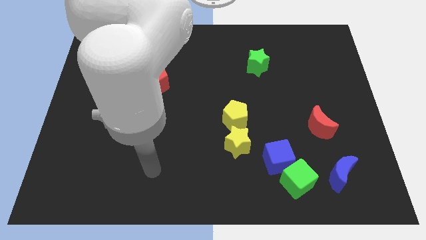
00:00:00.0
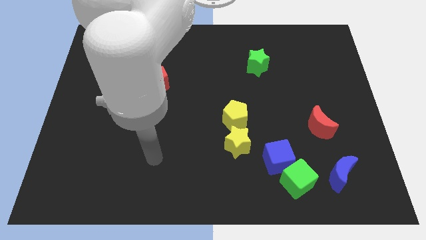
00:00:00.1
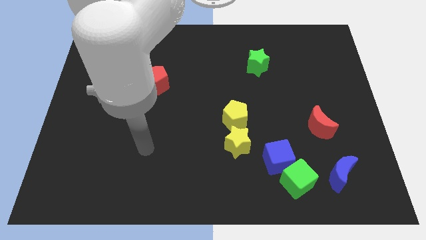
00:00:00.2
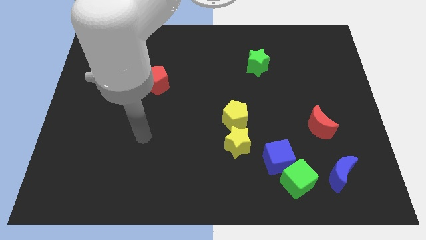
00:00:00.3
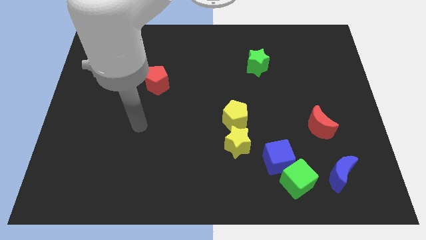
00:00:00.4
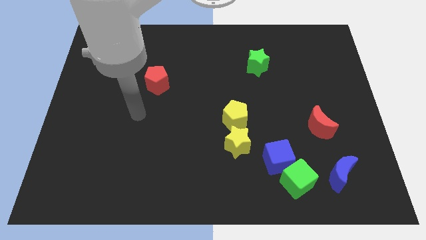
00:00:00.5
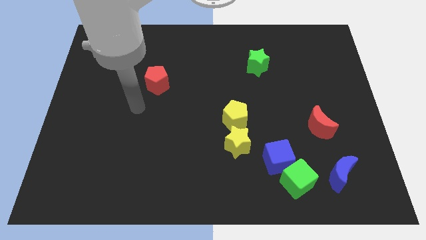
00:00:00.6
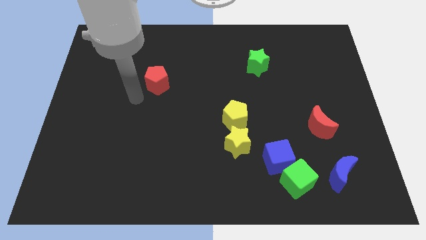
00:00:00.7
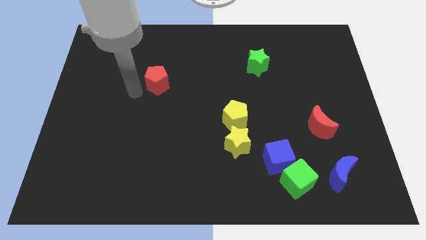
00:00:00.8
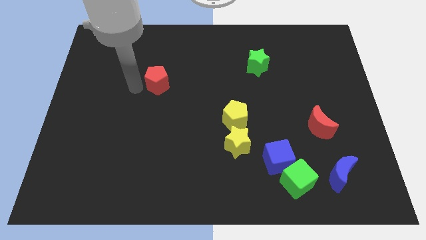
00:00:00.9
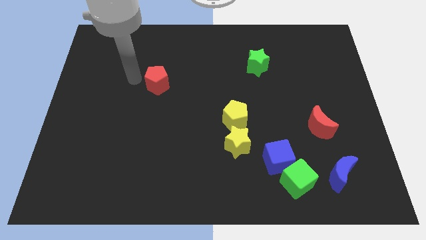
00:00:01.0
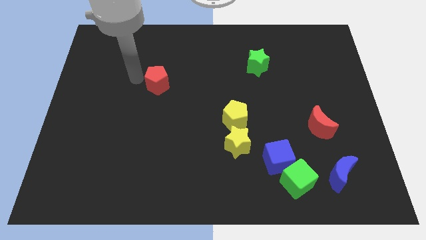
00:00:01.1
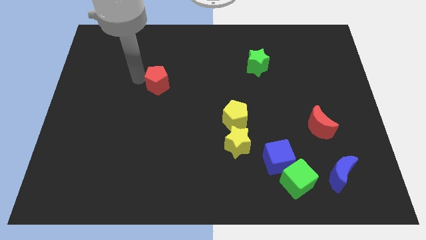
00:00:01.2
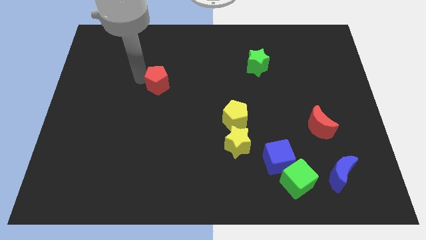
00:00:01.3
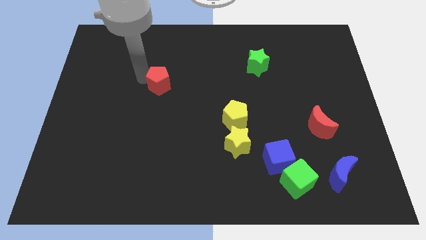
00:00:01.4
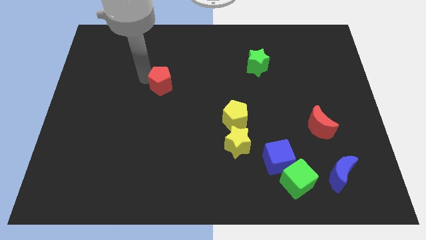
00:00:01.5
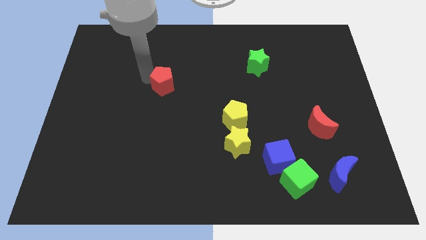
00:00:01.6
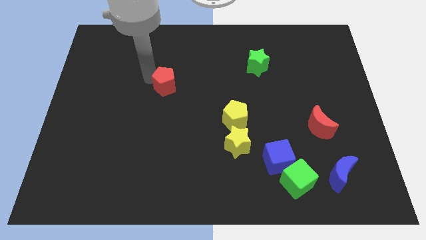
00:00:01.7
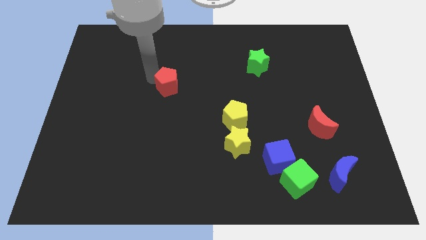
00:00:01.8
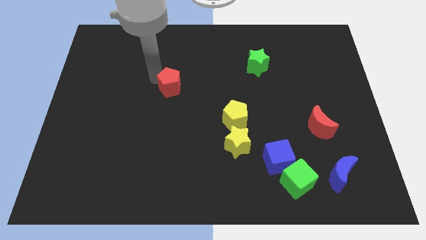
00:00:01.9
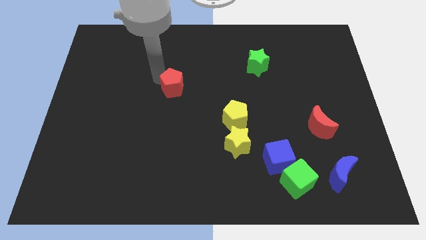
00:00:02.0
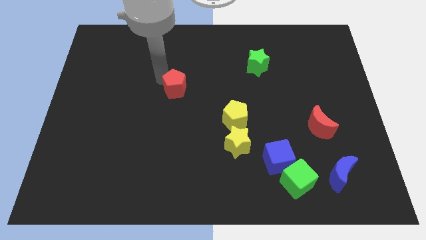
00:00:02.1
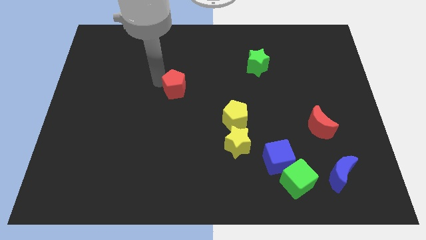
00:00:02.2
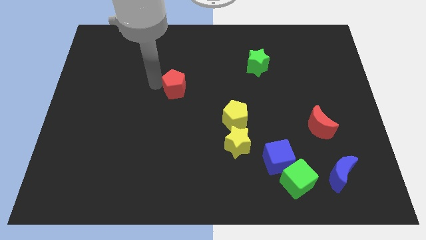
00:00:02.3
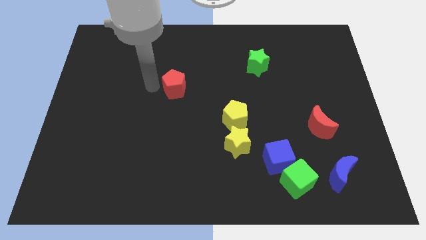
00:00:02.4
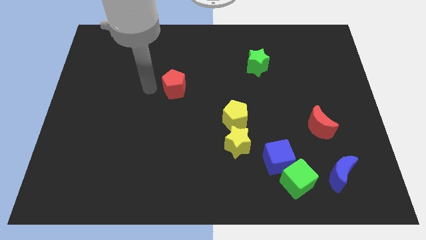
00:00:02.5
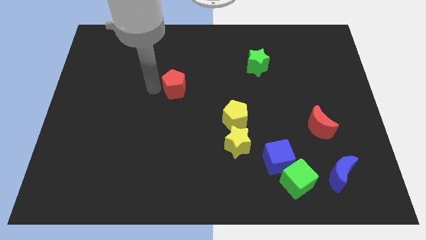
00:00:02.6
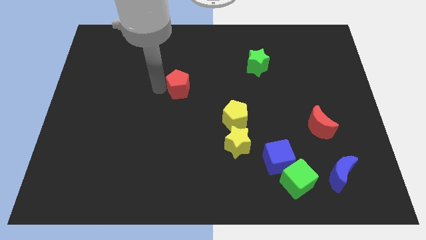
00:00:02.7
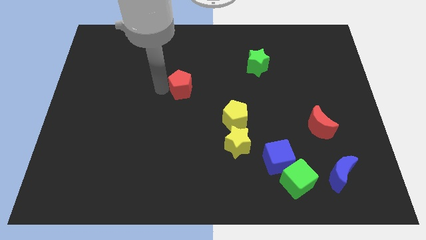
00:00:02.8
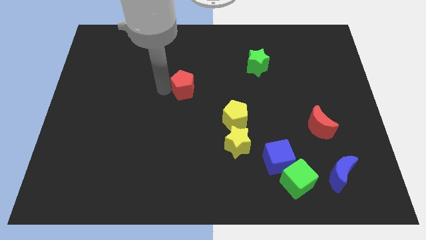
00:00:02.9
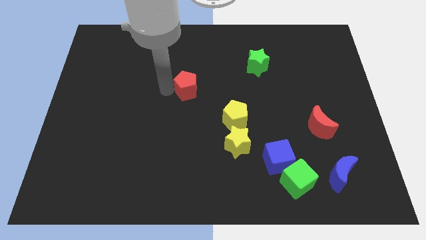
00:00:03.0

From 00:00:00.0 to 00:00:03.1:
slide the red pentagon to the right a little

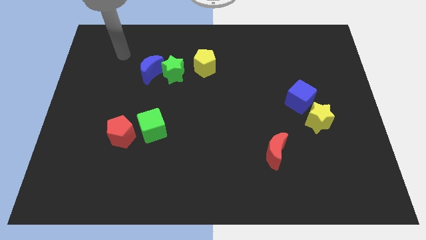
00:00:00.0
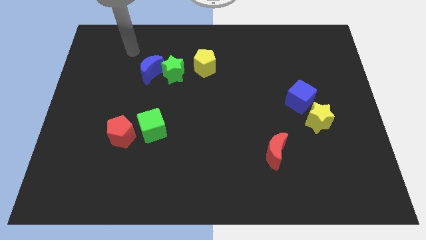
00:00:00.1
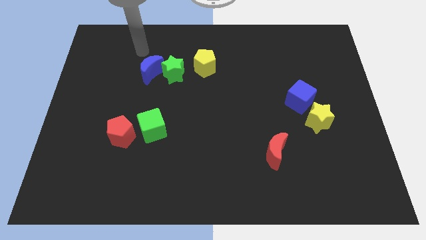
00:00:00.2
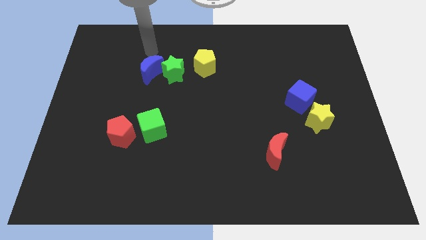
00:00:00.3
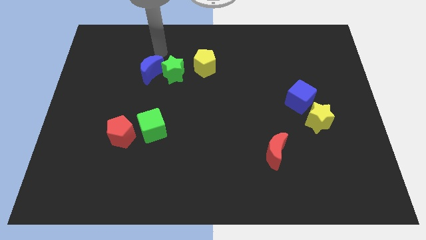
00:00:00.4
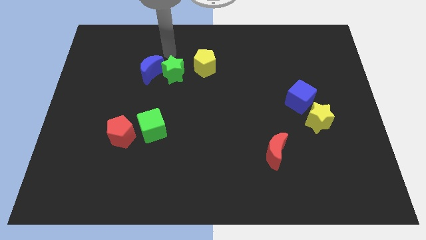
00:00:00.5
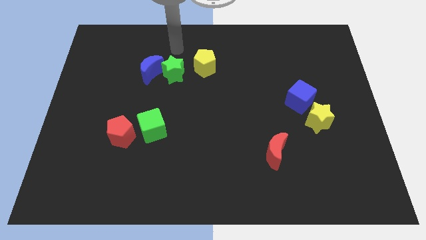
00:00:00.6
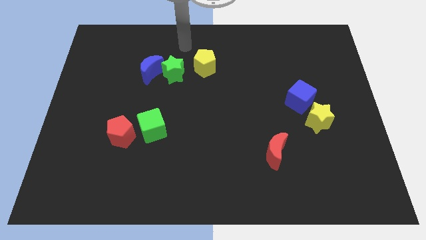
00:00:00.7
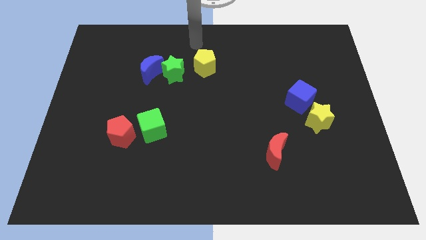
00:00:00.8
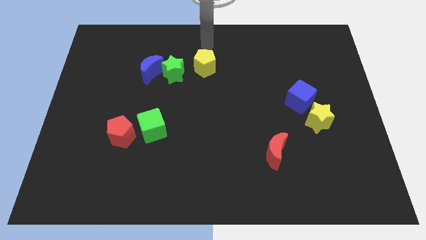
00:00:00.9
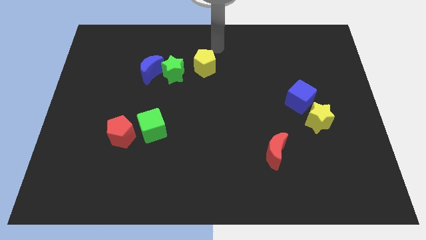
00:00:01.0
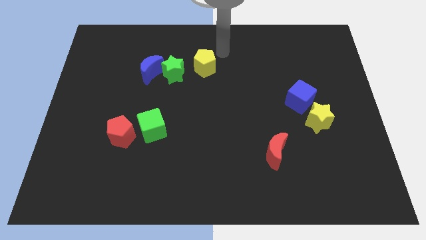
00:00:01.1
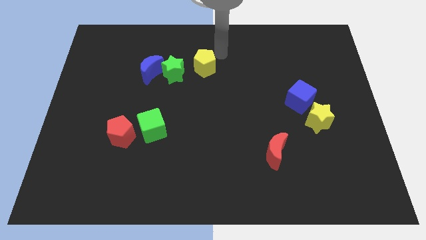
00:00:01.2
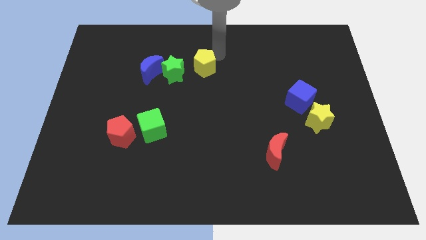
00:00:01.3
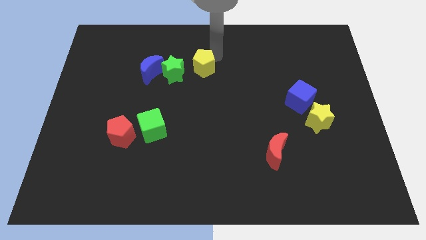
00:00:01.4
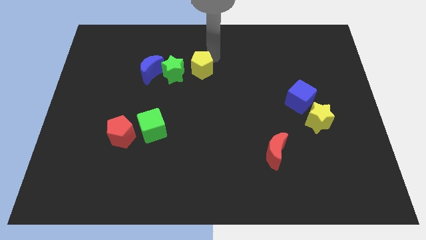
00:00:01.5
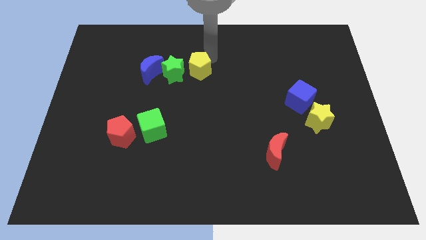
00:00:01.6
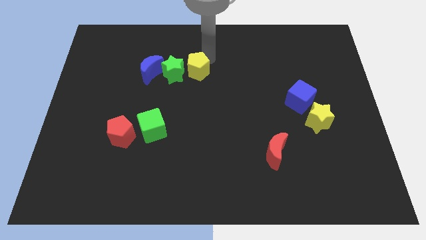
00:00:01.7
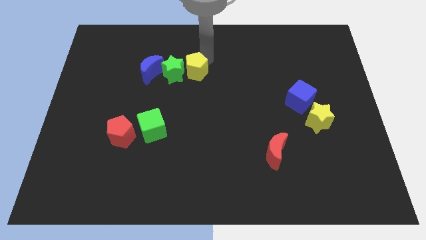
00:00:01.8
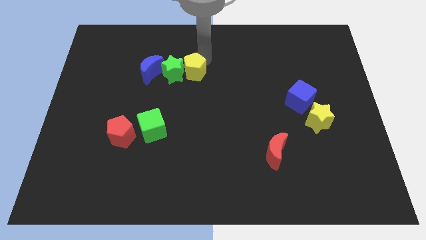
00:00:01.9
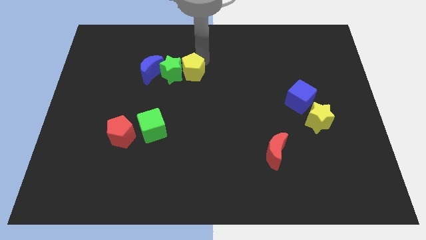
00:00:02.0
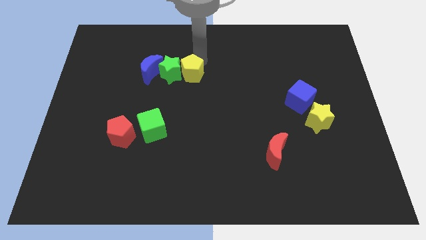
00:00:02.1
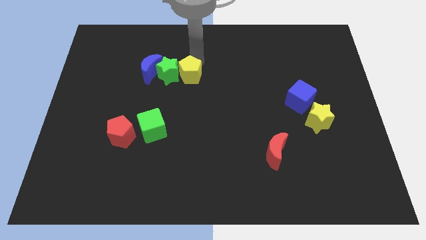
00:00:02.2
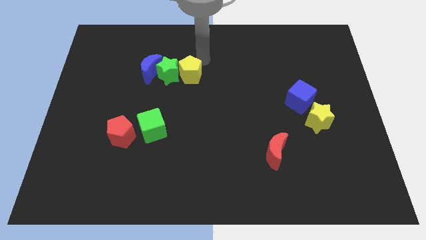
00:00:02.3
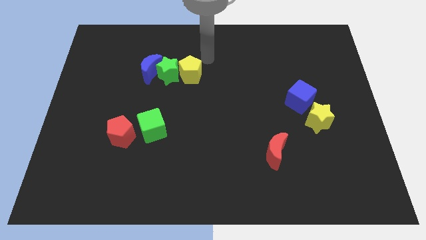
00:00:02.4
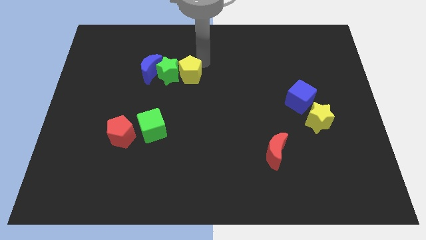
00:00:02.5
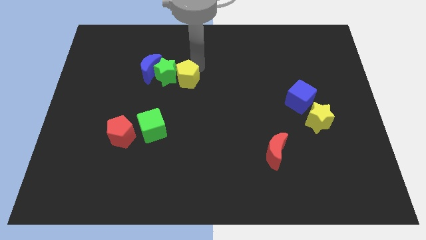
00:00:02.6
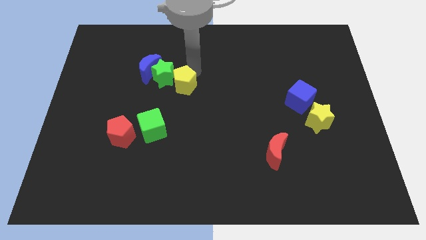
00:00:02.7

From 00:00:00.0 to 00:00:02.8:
push the yellow pentagon down and then left a little bit

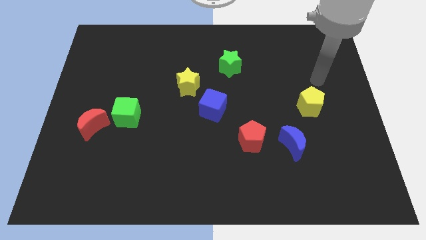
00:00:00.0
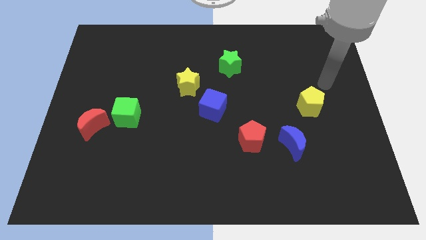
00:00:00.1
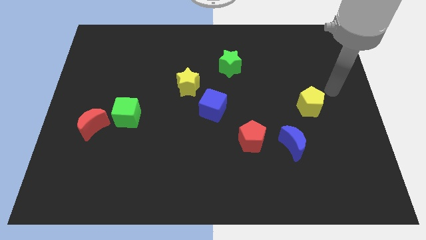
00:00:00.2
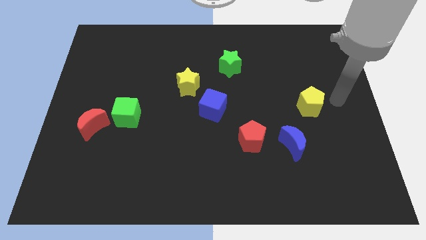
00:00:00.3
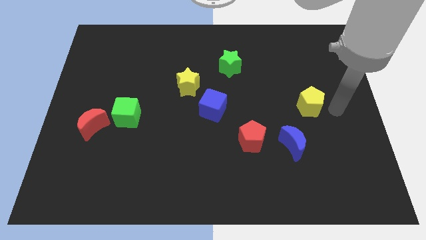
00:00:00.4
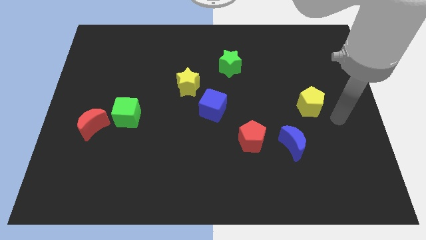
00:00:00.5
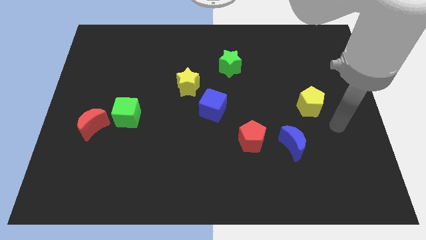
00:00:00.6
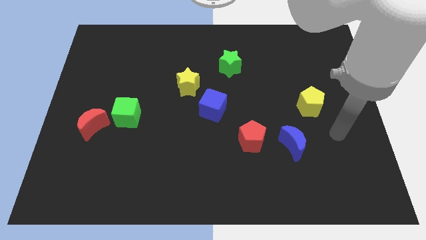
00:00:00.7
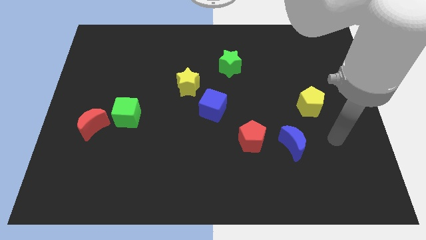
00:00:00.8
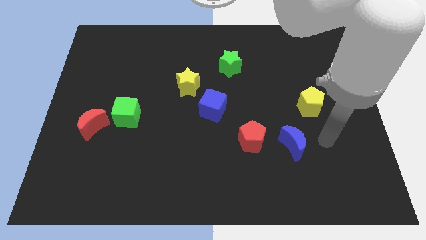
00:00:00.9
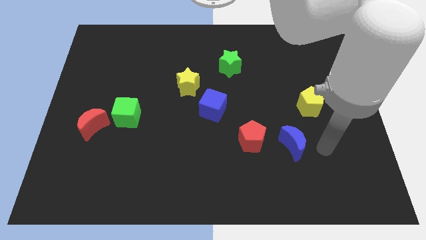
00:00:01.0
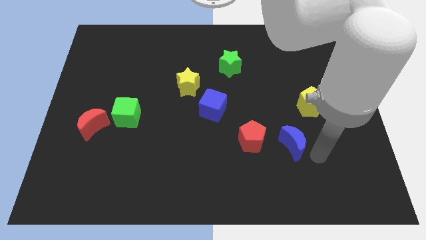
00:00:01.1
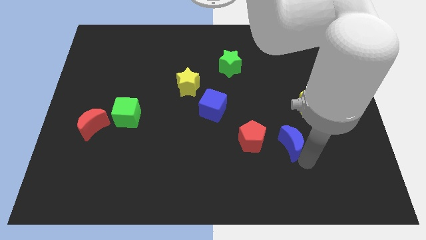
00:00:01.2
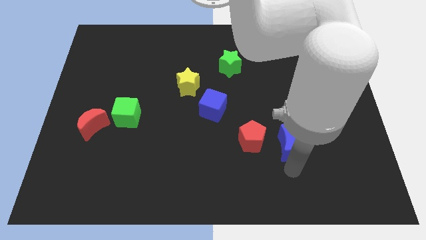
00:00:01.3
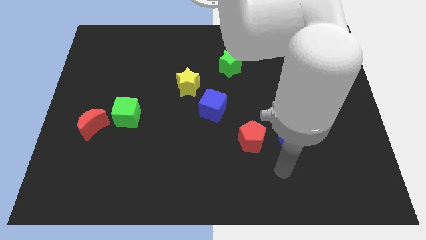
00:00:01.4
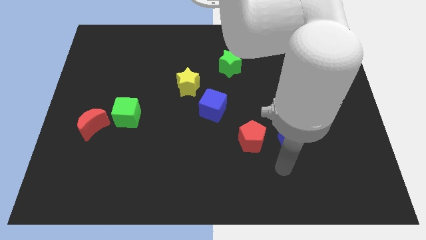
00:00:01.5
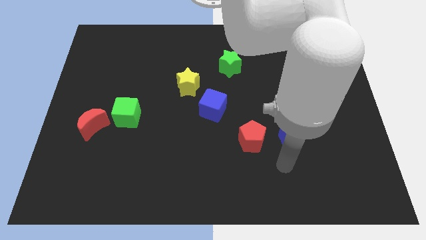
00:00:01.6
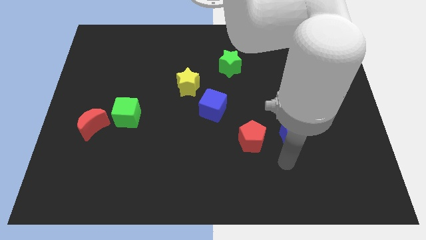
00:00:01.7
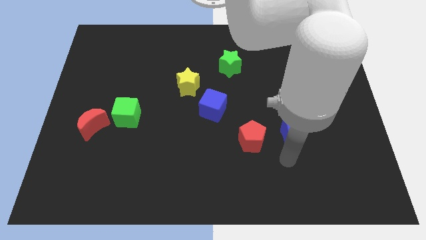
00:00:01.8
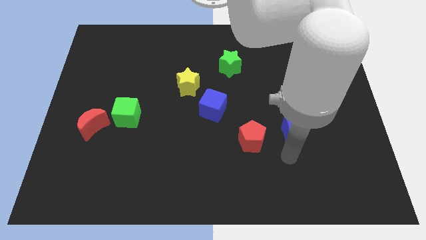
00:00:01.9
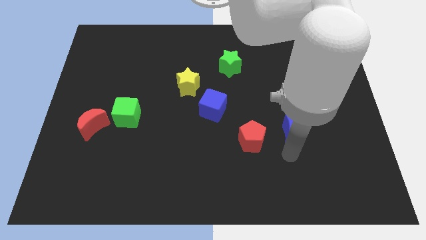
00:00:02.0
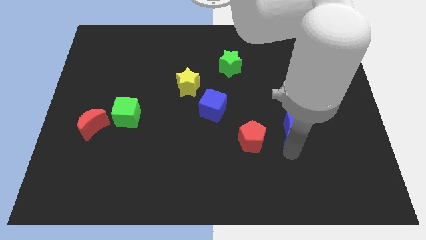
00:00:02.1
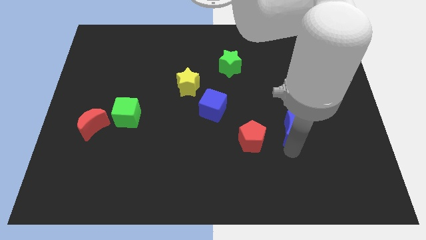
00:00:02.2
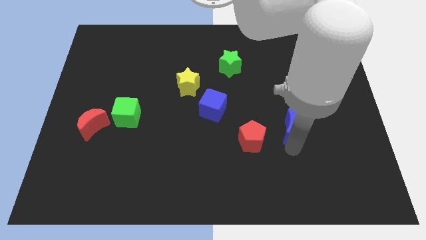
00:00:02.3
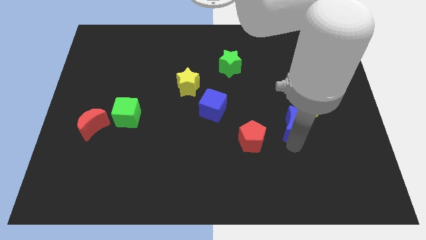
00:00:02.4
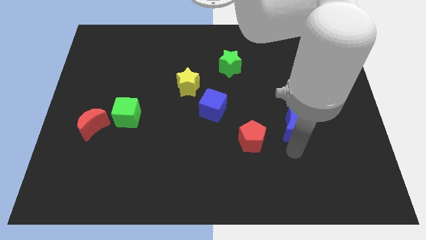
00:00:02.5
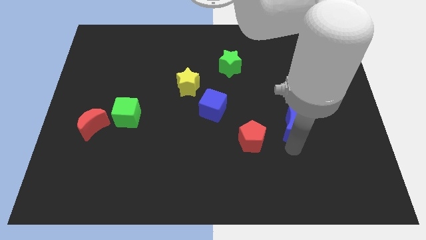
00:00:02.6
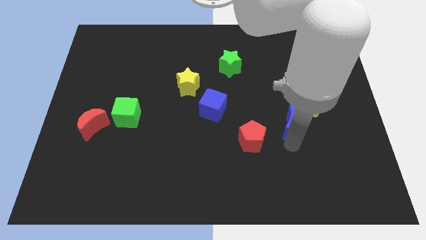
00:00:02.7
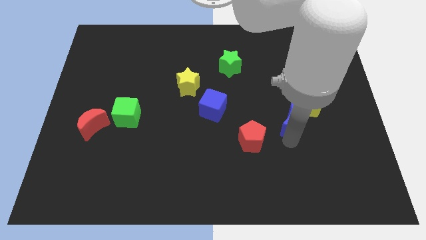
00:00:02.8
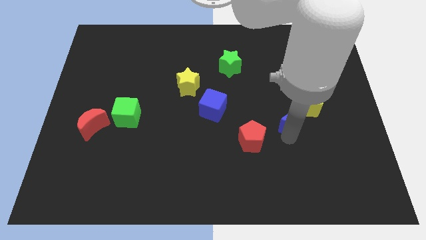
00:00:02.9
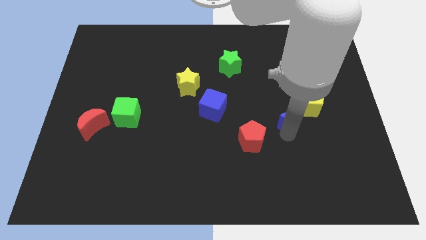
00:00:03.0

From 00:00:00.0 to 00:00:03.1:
move the blue moon a little bit upwards
